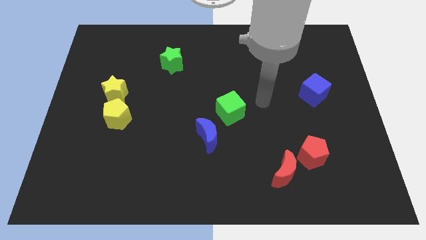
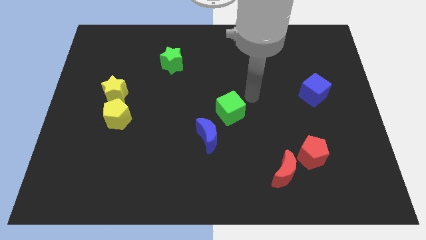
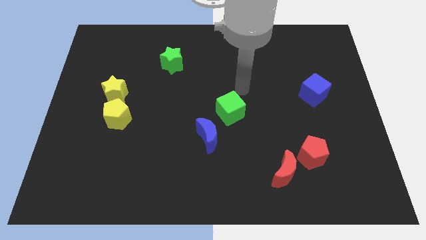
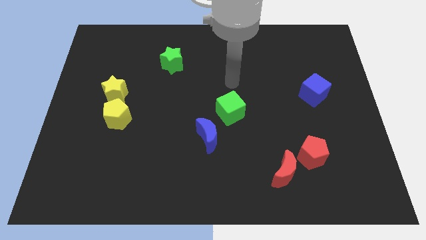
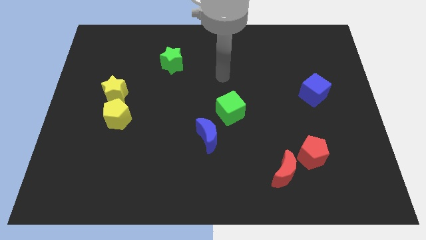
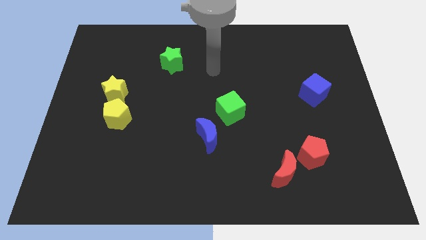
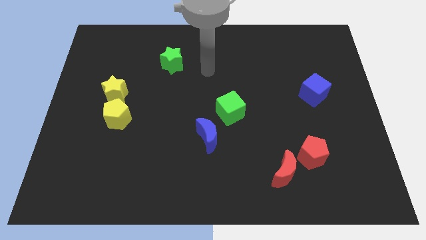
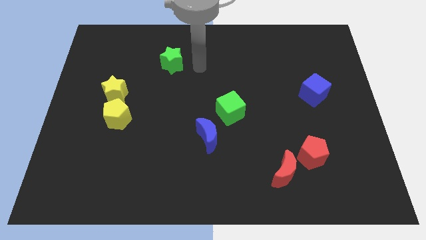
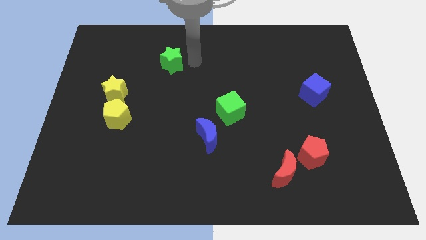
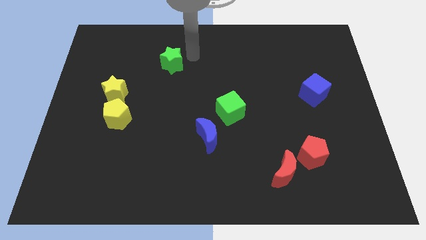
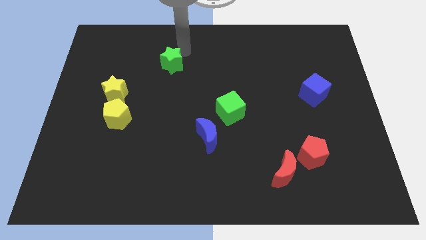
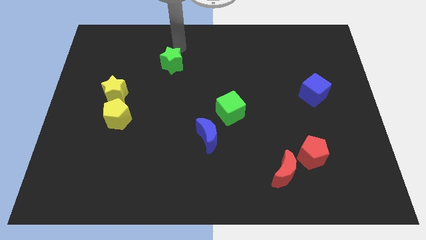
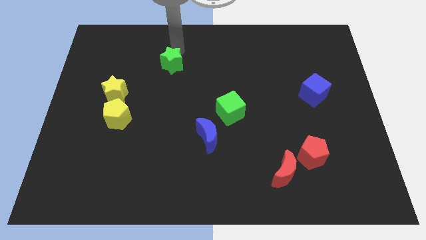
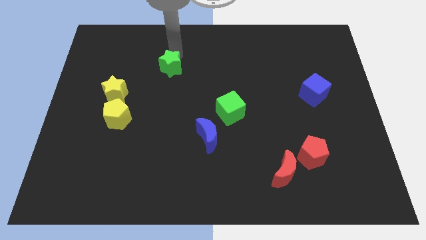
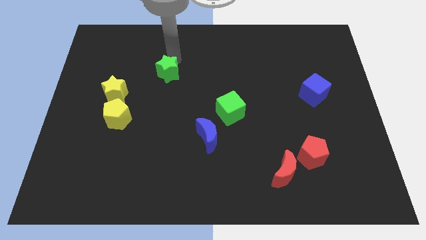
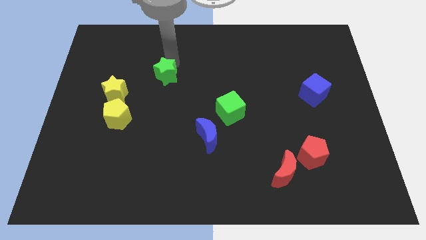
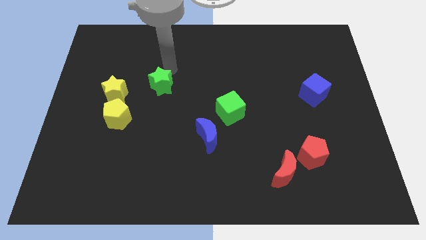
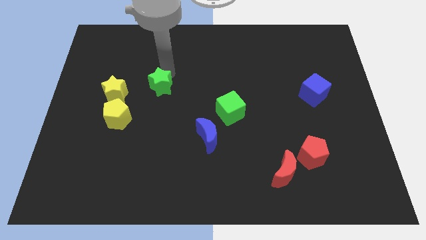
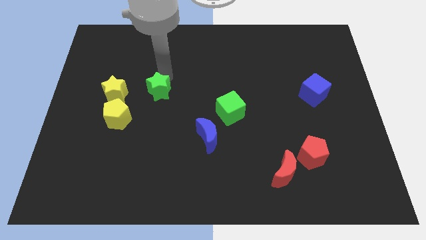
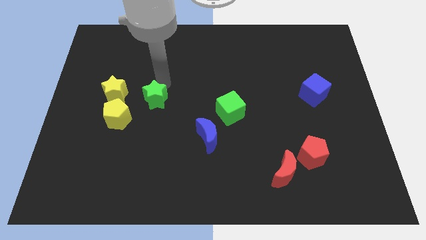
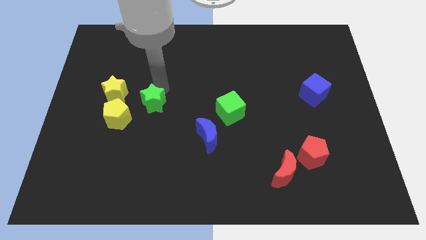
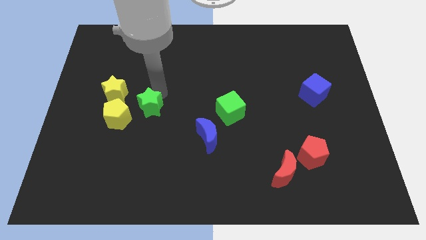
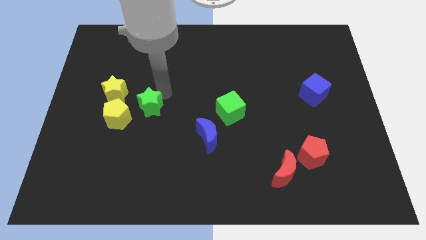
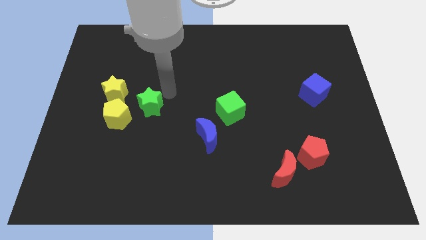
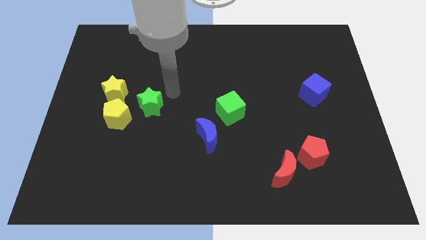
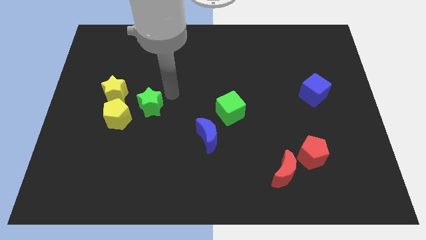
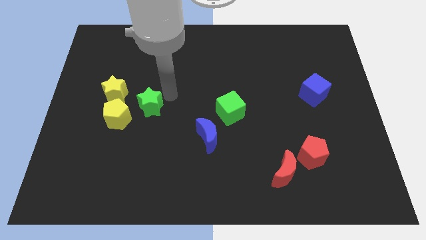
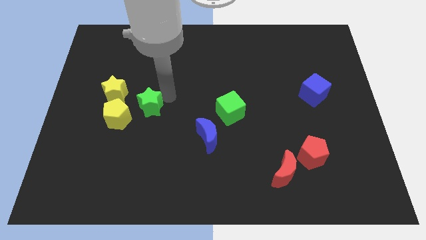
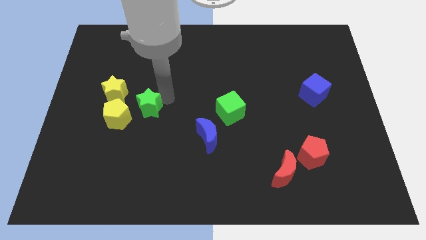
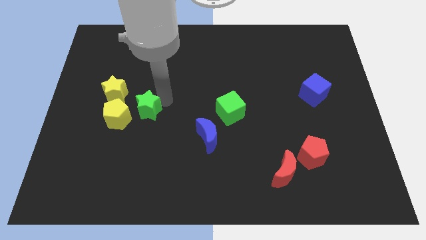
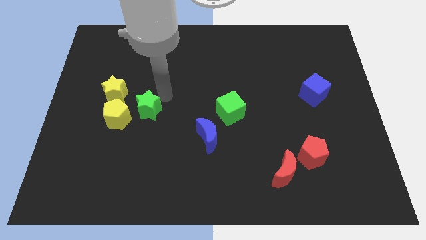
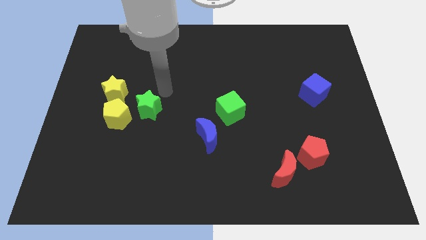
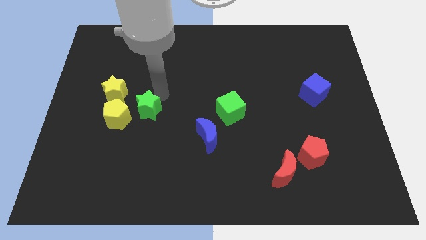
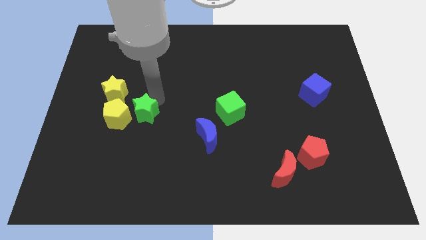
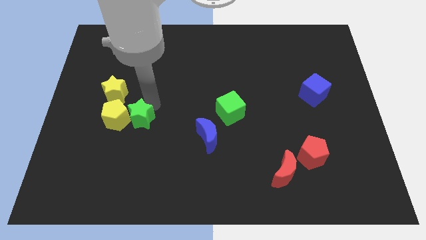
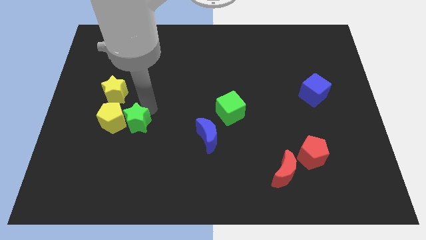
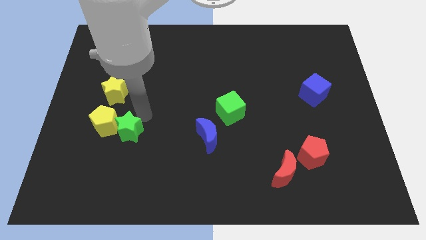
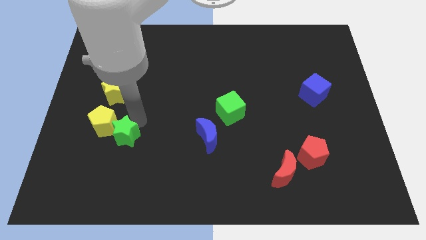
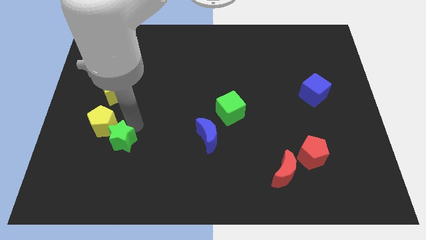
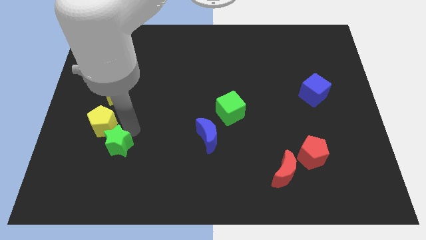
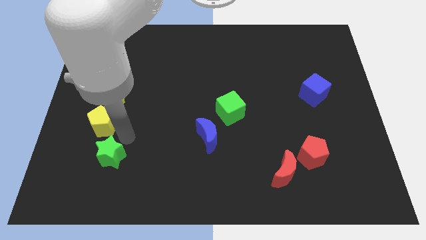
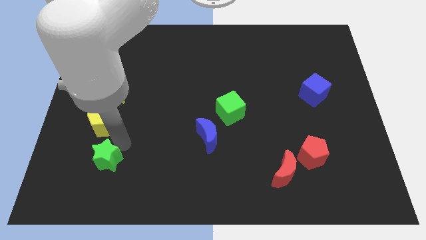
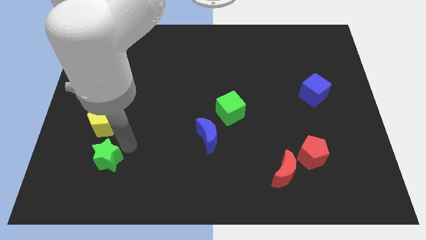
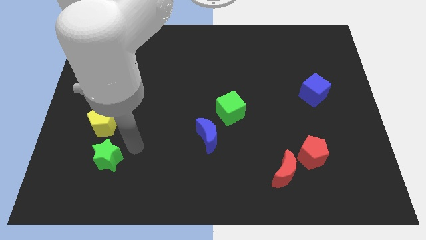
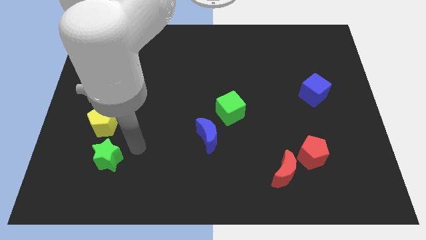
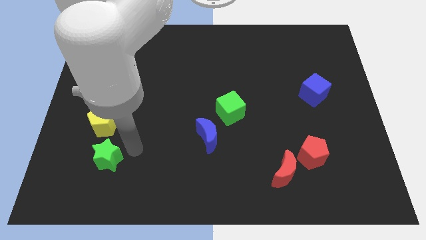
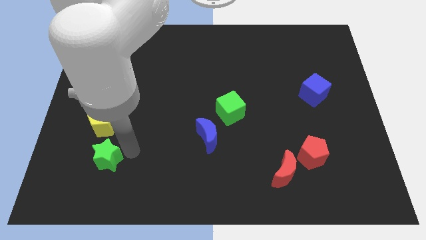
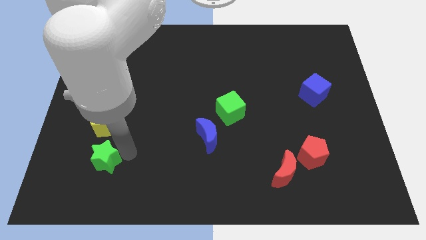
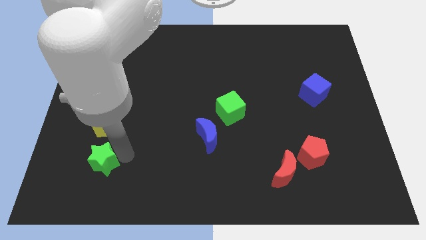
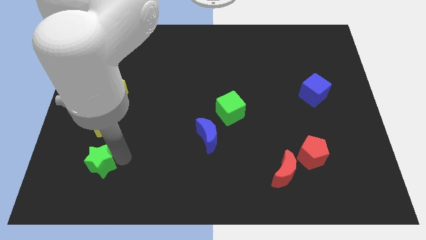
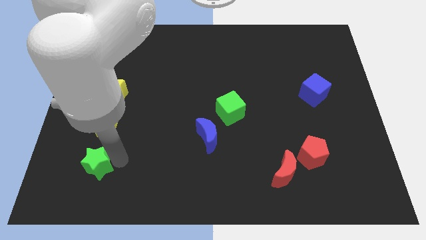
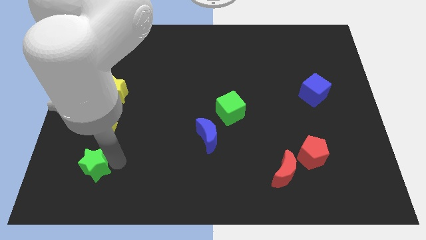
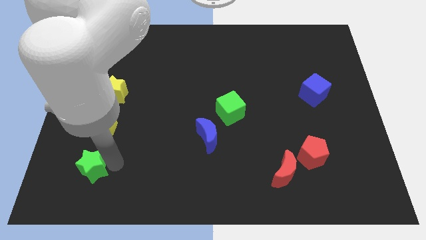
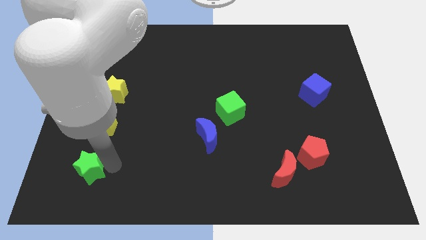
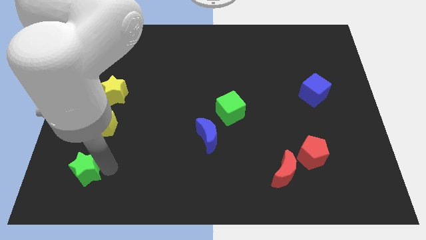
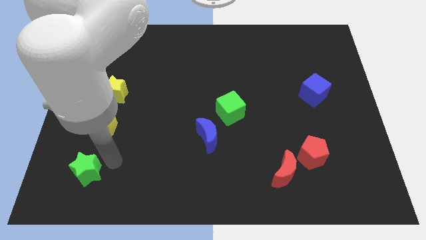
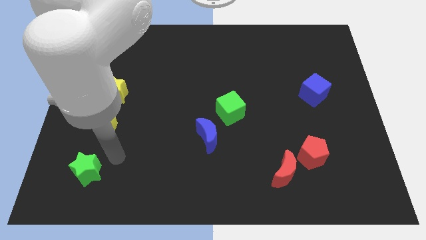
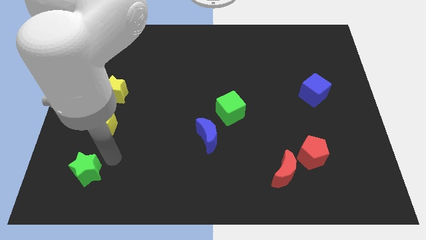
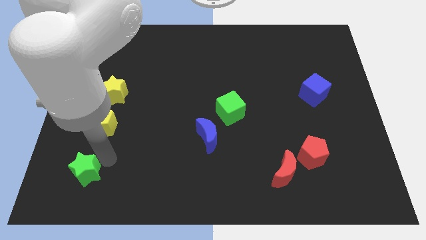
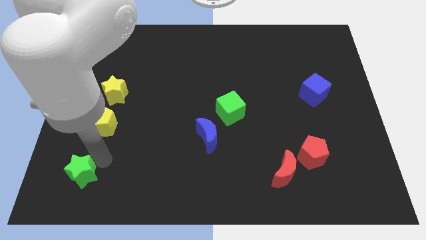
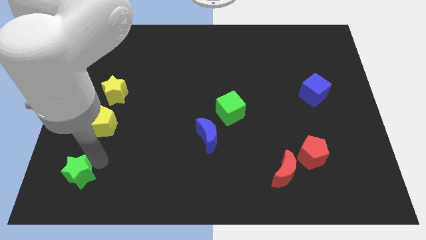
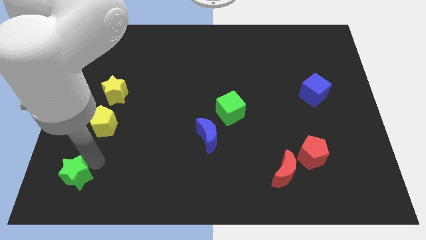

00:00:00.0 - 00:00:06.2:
put the green star to the bottom left of the board
